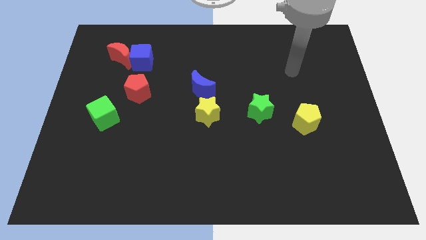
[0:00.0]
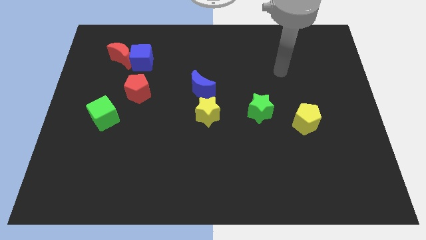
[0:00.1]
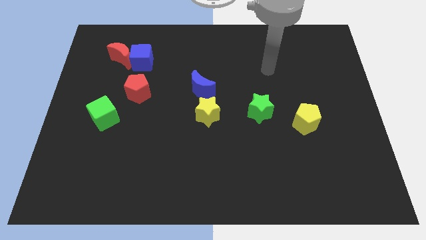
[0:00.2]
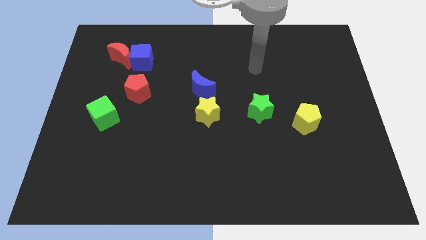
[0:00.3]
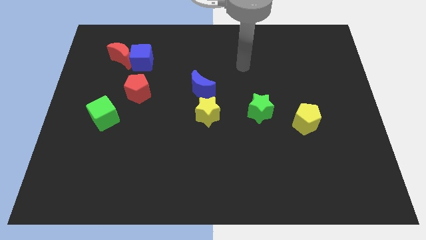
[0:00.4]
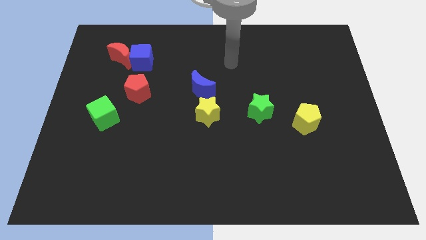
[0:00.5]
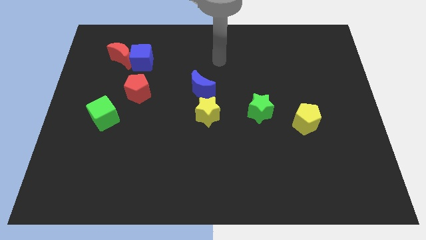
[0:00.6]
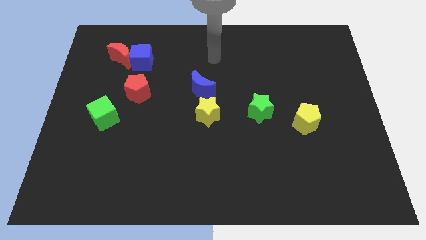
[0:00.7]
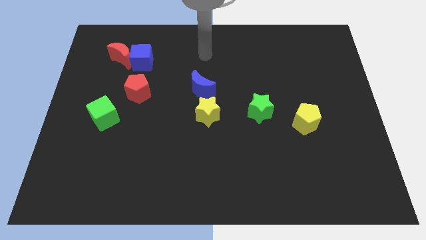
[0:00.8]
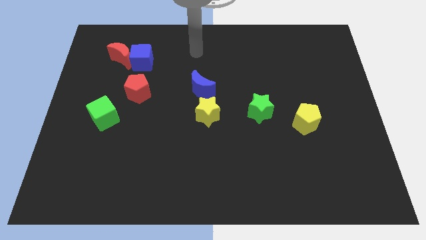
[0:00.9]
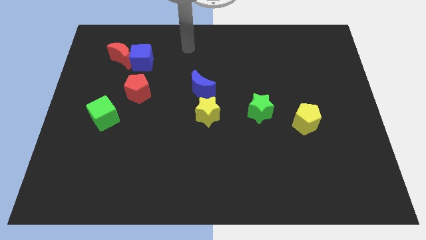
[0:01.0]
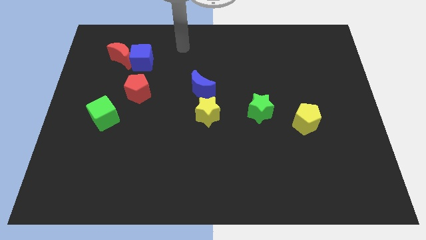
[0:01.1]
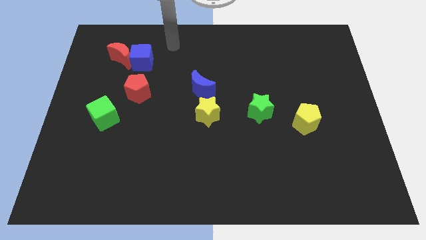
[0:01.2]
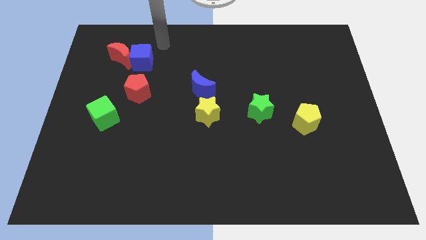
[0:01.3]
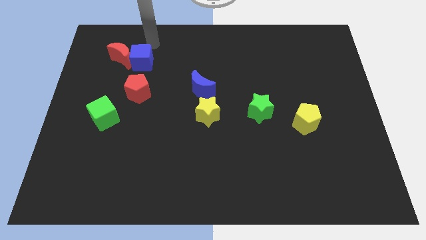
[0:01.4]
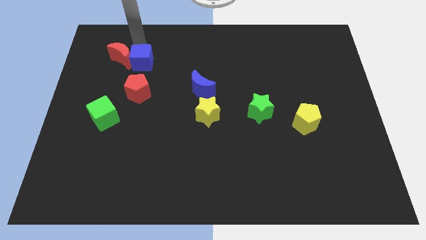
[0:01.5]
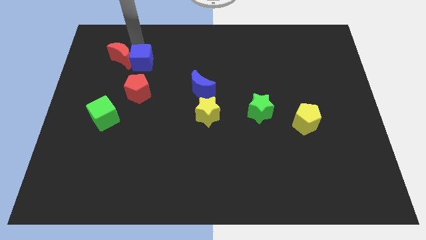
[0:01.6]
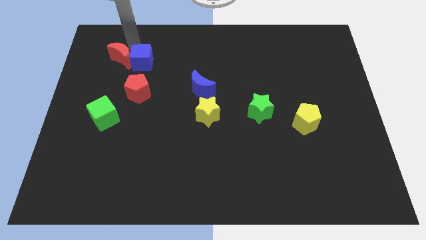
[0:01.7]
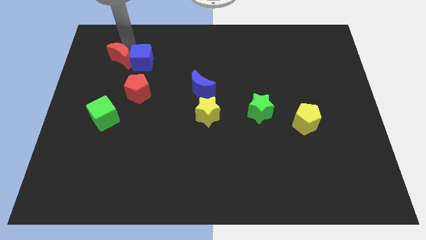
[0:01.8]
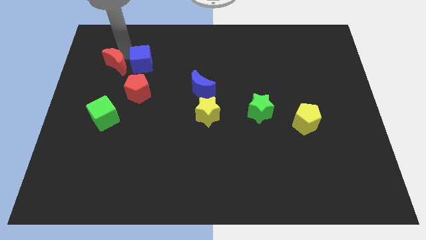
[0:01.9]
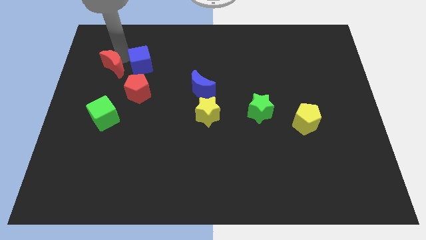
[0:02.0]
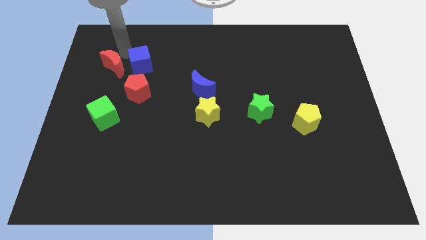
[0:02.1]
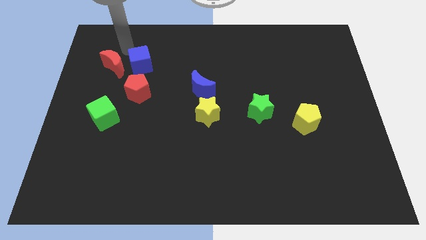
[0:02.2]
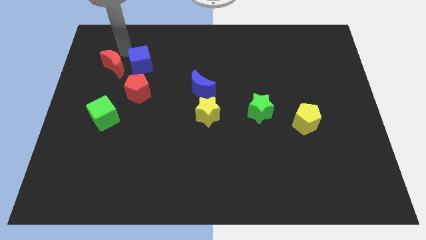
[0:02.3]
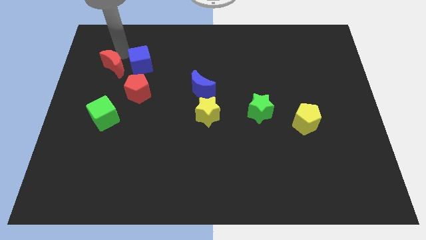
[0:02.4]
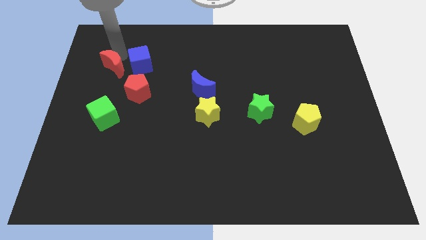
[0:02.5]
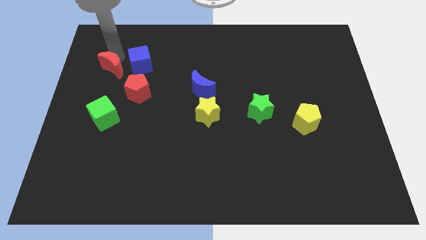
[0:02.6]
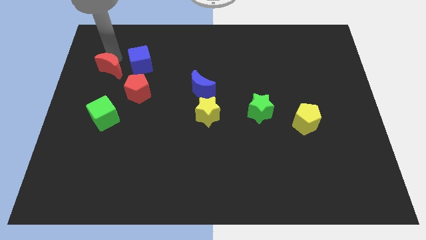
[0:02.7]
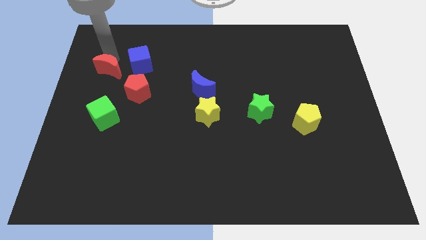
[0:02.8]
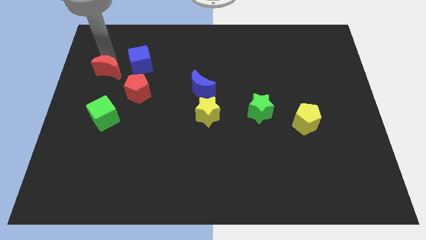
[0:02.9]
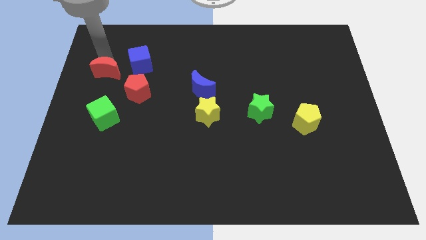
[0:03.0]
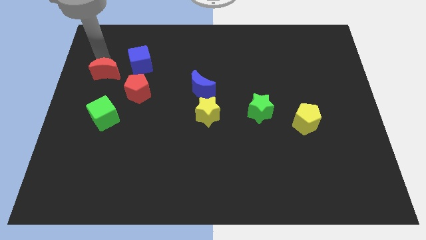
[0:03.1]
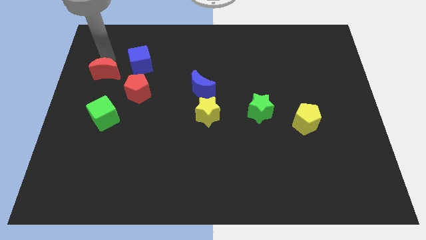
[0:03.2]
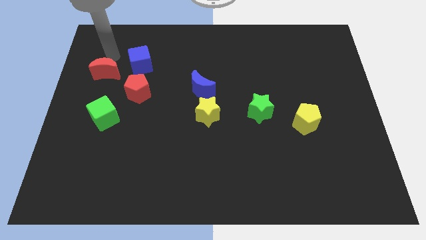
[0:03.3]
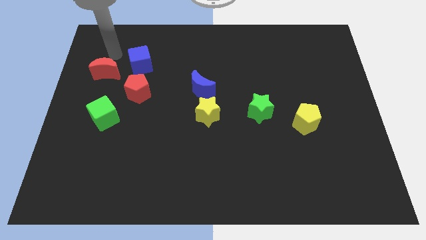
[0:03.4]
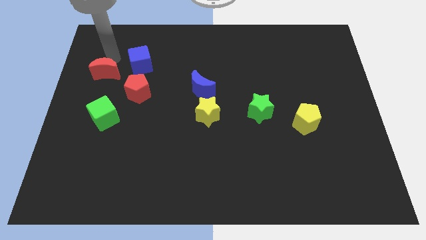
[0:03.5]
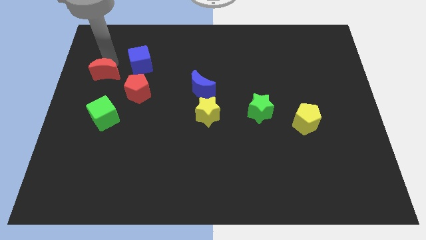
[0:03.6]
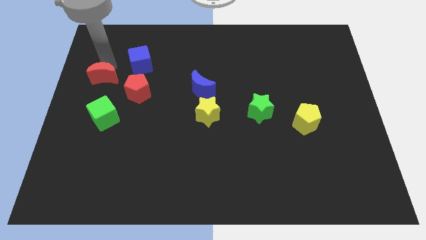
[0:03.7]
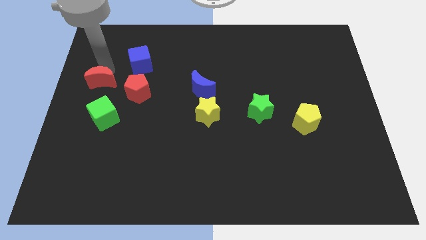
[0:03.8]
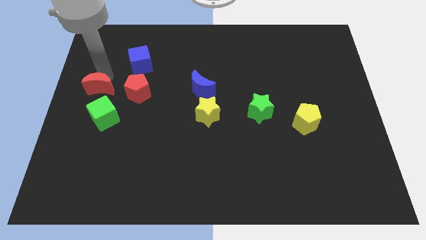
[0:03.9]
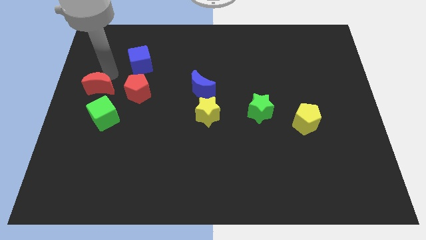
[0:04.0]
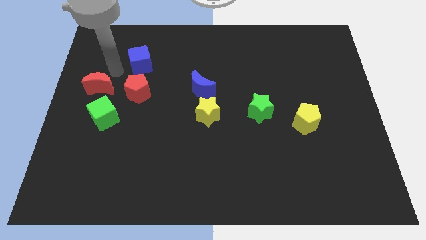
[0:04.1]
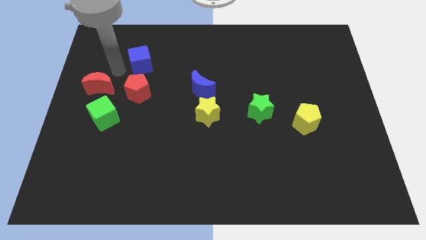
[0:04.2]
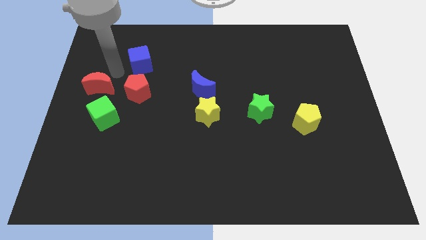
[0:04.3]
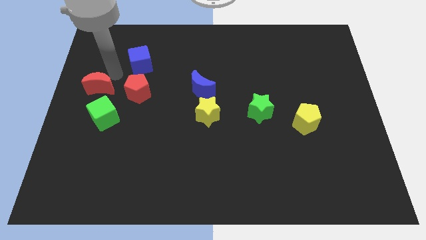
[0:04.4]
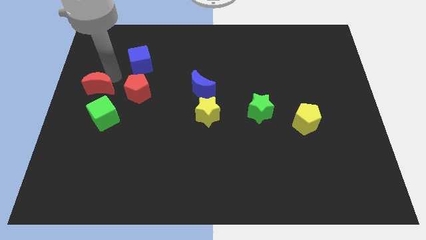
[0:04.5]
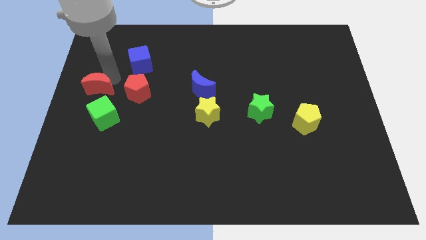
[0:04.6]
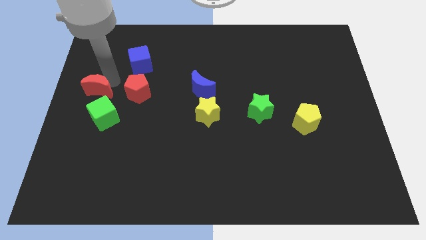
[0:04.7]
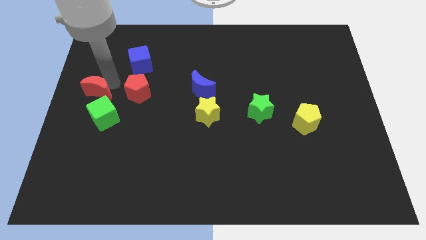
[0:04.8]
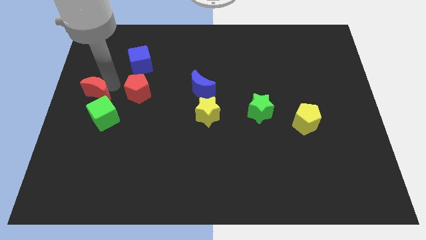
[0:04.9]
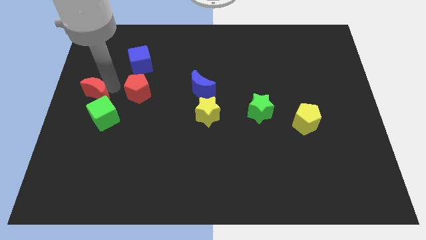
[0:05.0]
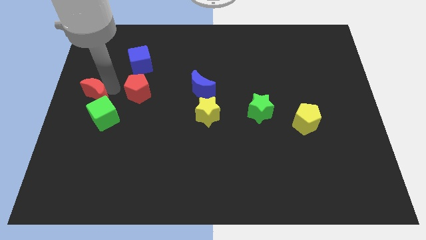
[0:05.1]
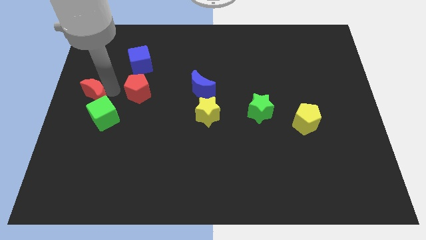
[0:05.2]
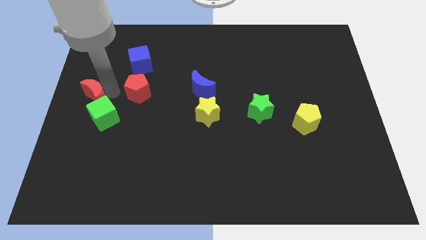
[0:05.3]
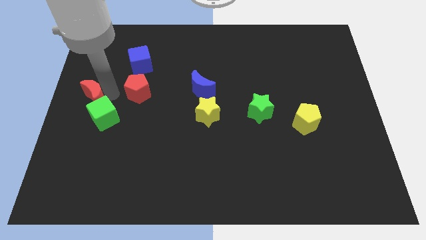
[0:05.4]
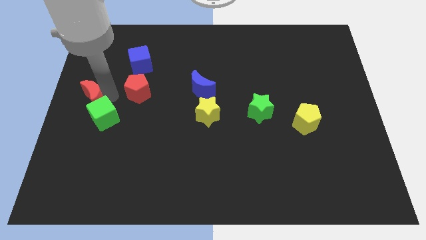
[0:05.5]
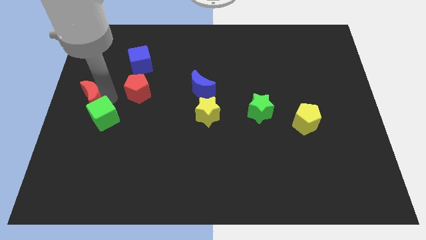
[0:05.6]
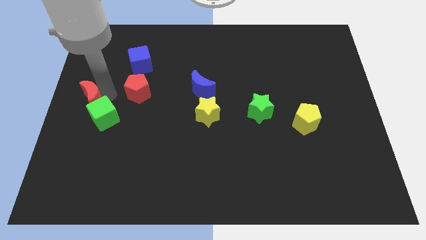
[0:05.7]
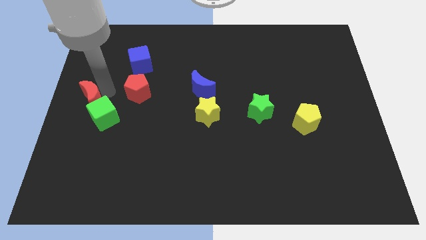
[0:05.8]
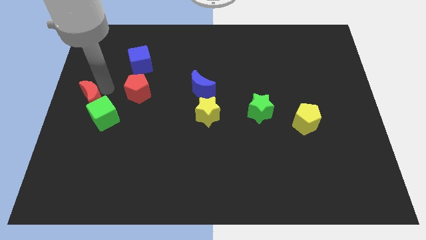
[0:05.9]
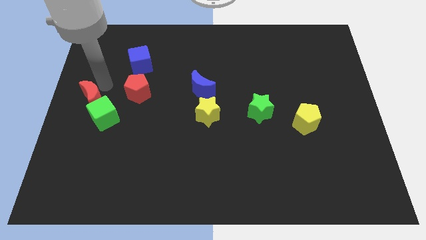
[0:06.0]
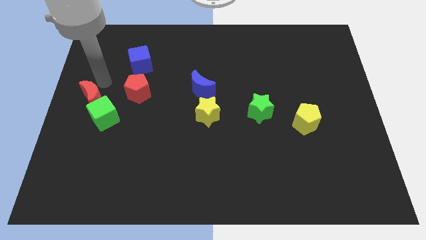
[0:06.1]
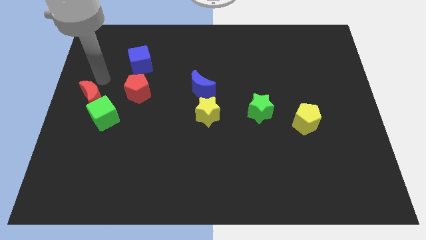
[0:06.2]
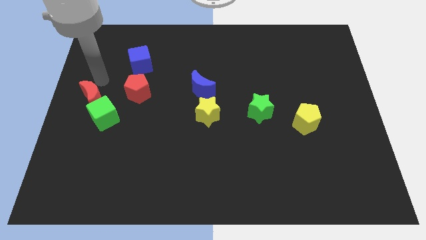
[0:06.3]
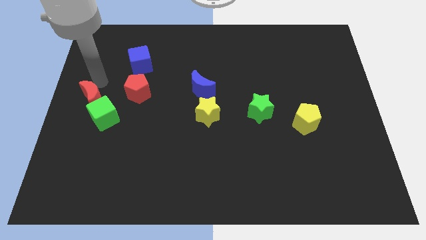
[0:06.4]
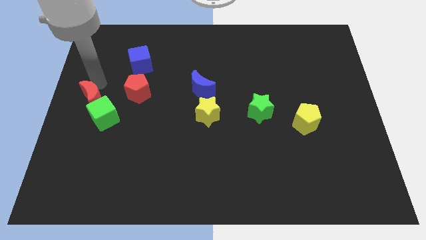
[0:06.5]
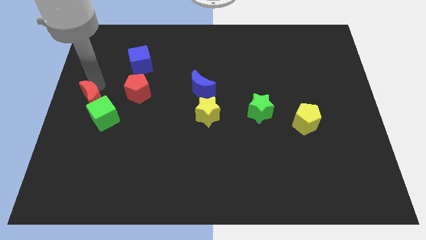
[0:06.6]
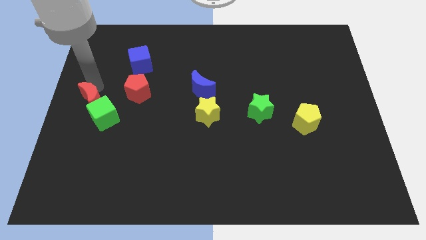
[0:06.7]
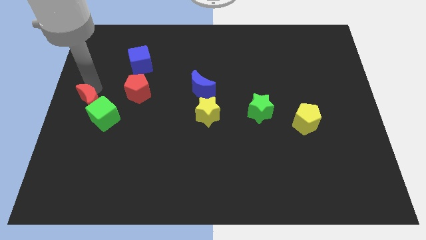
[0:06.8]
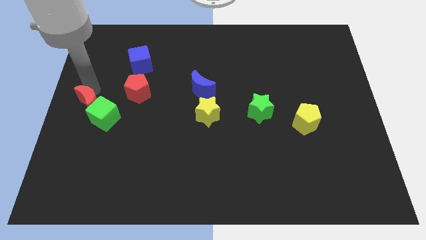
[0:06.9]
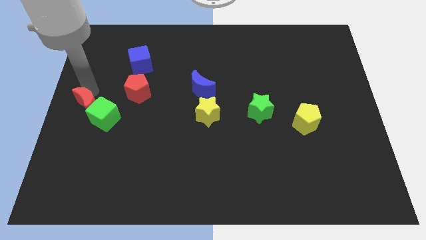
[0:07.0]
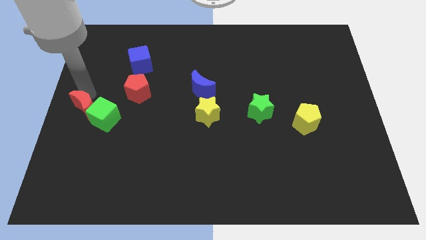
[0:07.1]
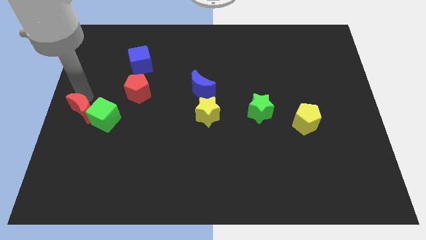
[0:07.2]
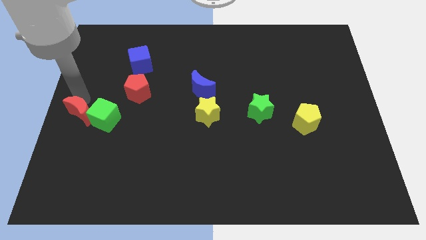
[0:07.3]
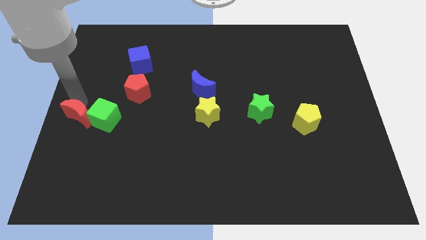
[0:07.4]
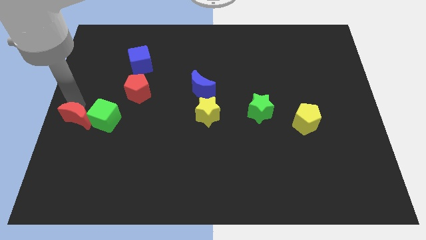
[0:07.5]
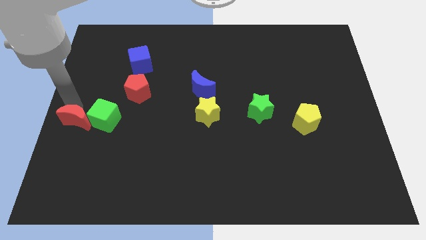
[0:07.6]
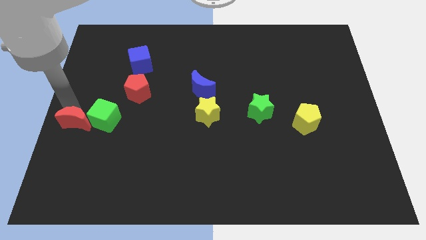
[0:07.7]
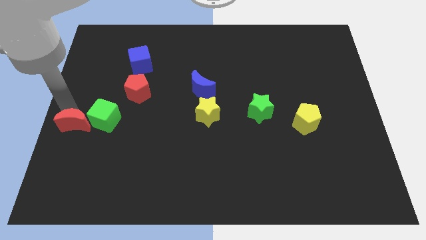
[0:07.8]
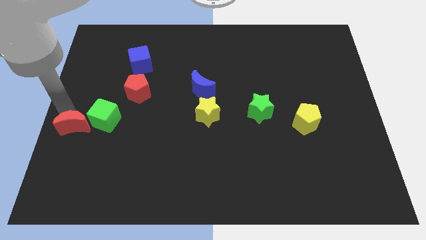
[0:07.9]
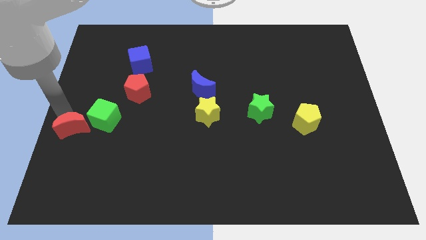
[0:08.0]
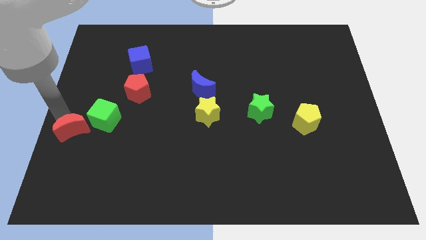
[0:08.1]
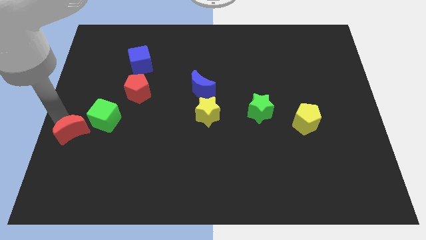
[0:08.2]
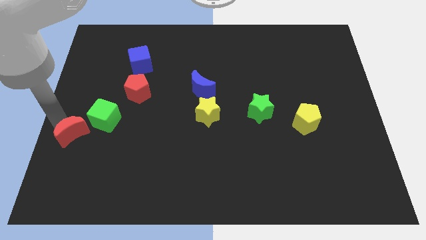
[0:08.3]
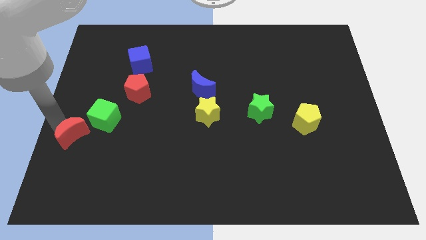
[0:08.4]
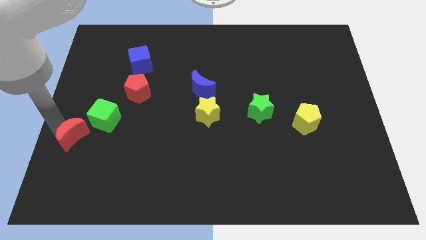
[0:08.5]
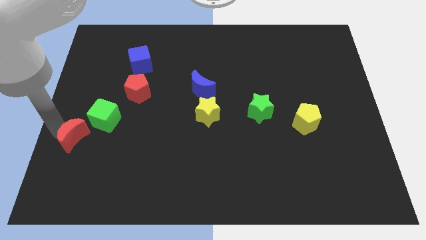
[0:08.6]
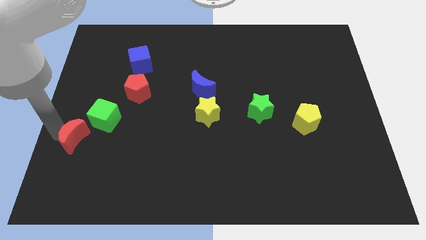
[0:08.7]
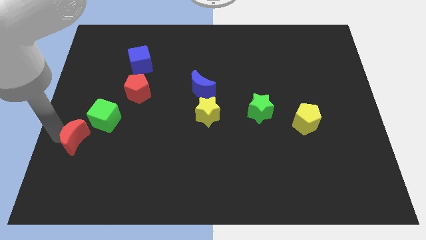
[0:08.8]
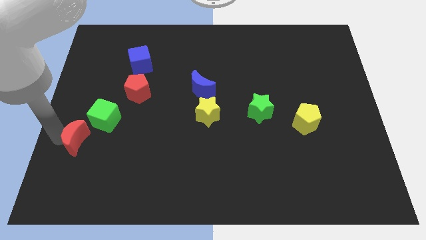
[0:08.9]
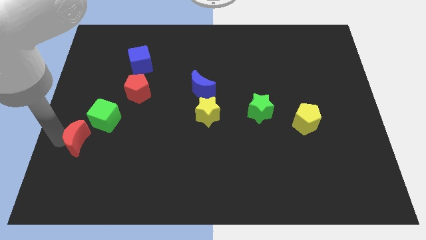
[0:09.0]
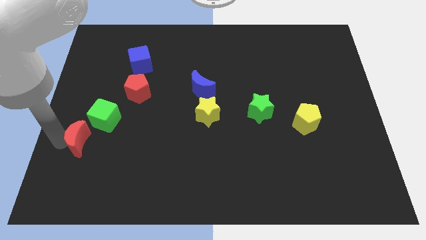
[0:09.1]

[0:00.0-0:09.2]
put the red moon below the green cube
